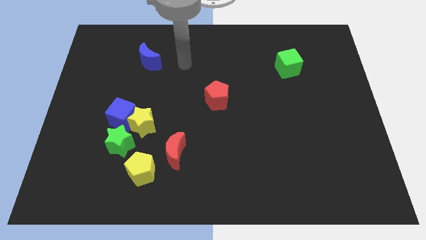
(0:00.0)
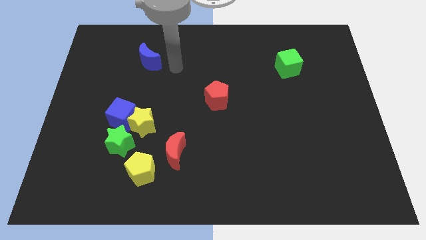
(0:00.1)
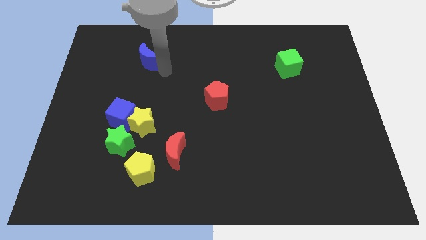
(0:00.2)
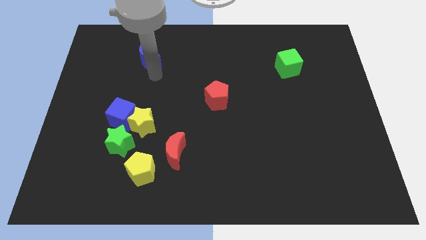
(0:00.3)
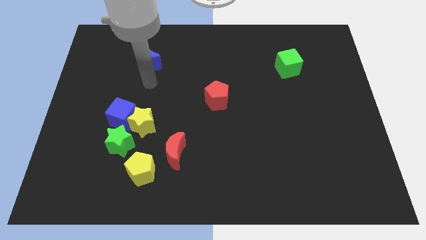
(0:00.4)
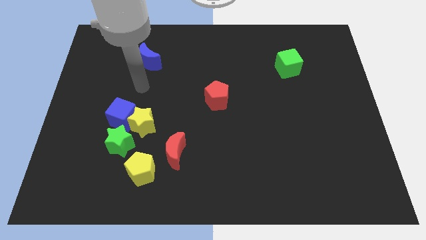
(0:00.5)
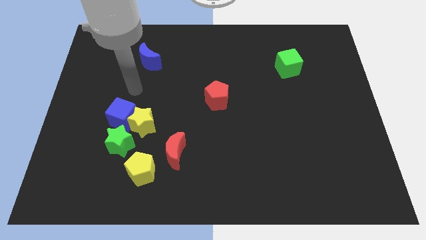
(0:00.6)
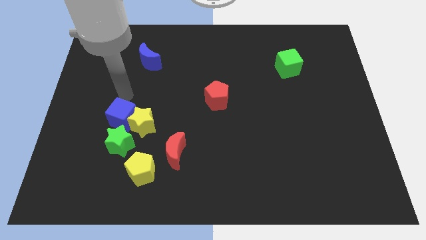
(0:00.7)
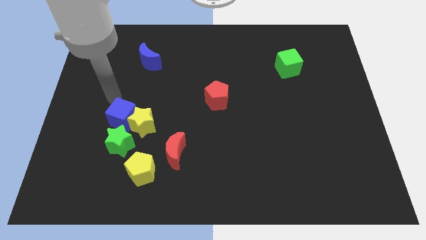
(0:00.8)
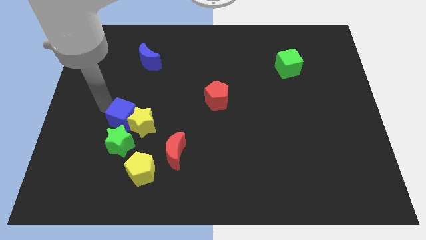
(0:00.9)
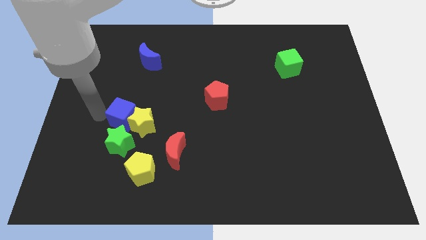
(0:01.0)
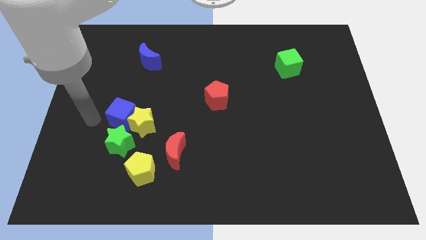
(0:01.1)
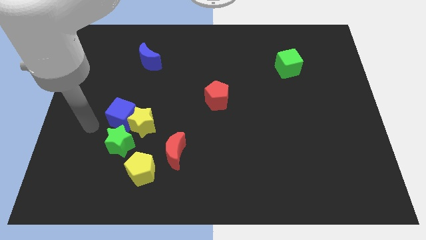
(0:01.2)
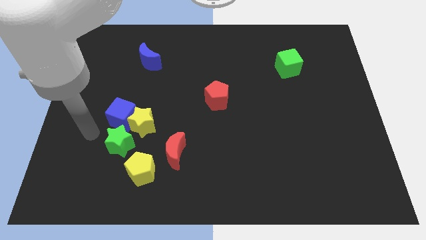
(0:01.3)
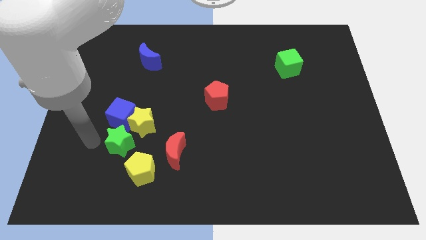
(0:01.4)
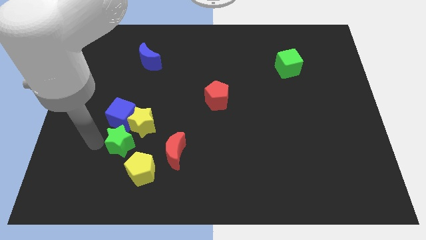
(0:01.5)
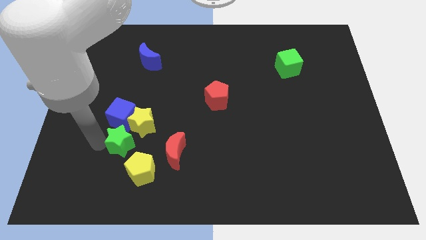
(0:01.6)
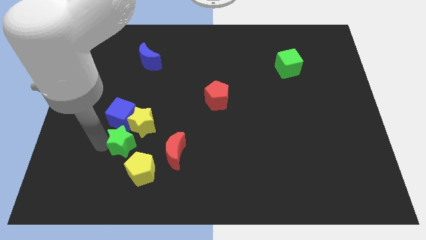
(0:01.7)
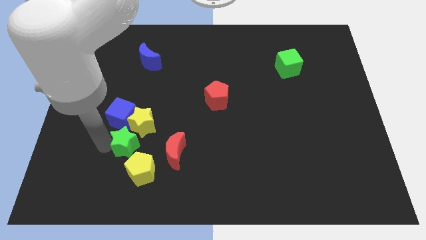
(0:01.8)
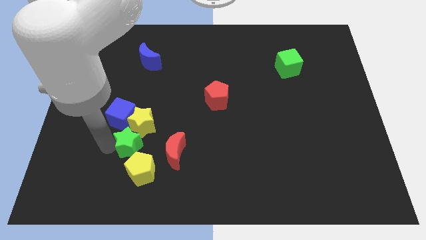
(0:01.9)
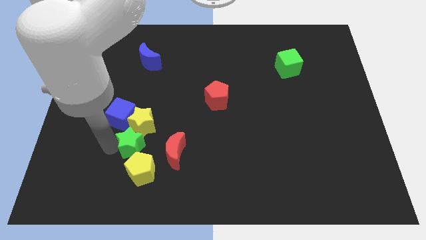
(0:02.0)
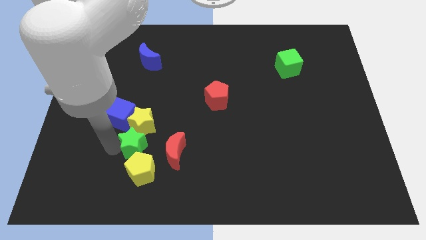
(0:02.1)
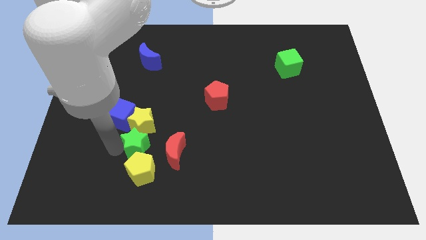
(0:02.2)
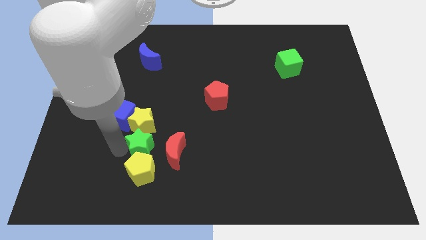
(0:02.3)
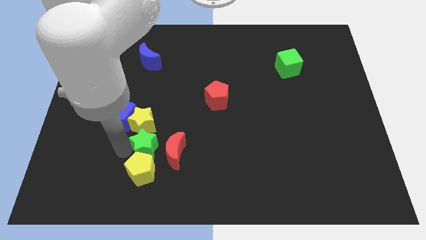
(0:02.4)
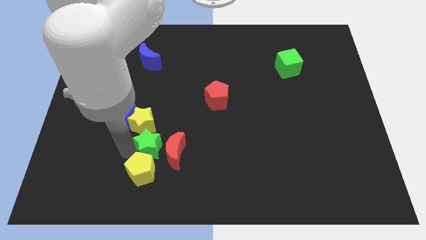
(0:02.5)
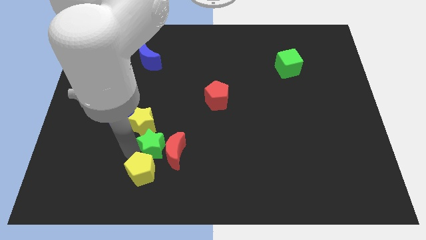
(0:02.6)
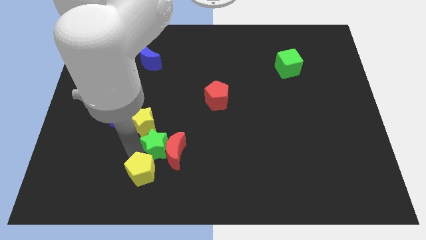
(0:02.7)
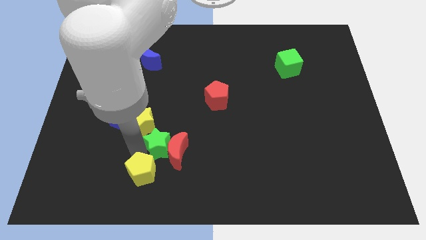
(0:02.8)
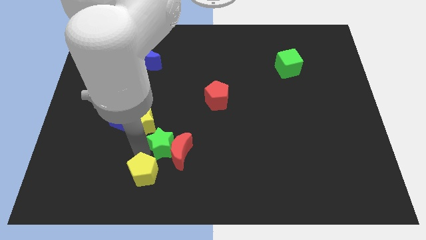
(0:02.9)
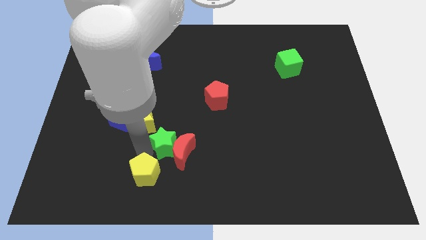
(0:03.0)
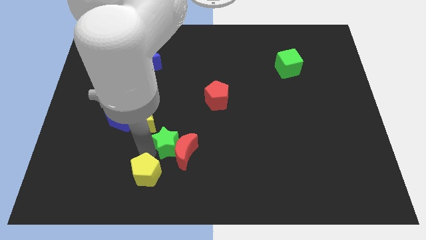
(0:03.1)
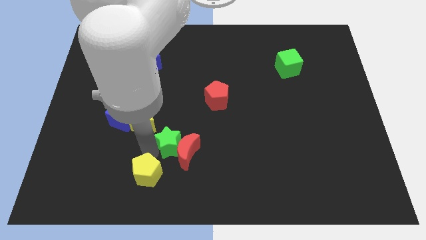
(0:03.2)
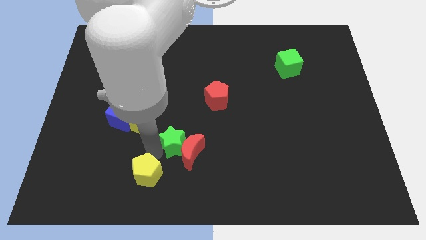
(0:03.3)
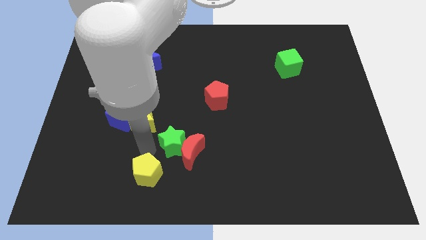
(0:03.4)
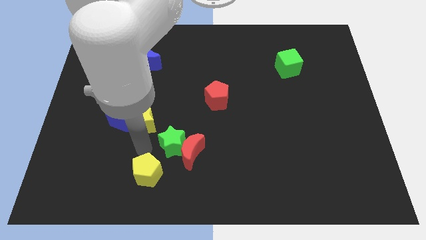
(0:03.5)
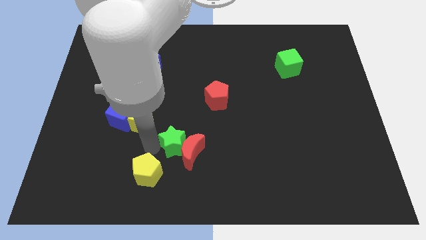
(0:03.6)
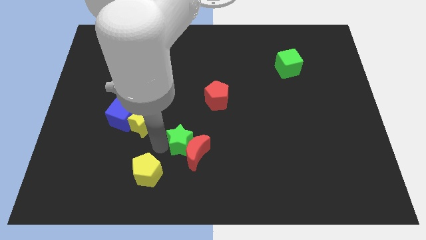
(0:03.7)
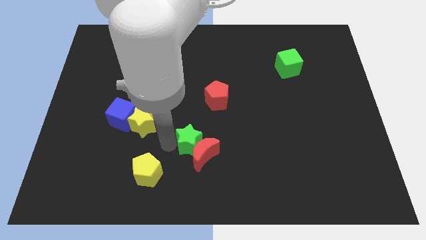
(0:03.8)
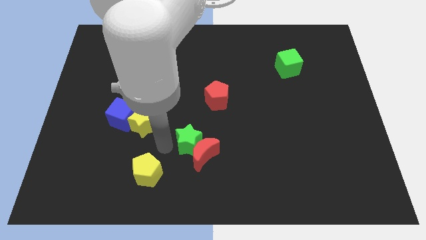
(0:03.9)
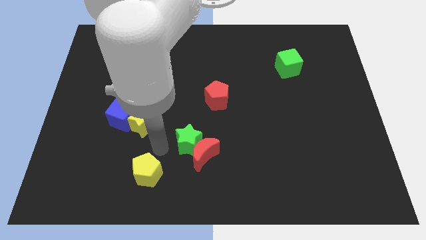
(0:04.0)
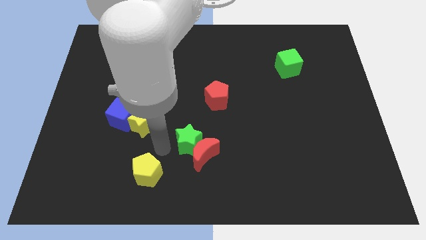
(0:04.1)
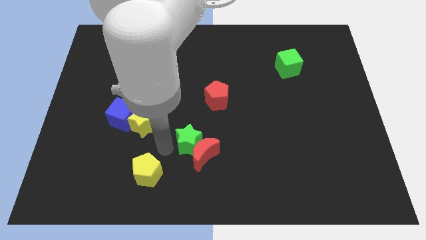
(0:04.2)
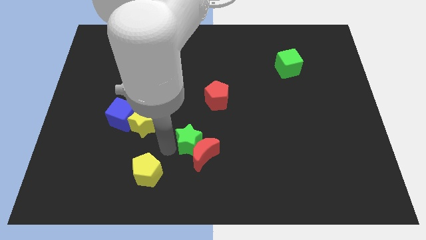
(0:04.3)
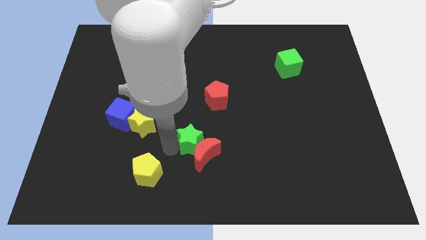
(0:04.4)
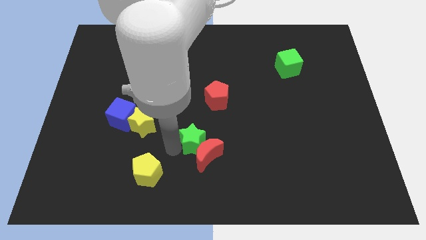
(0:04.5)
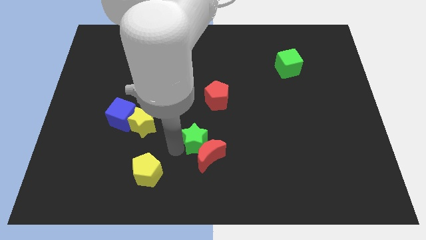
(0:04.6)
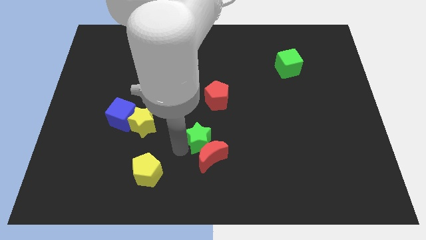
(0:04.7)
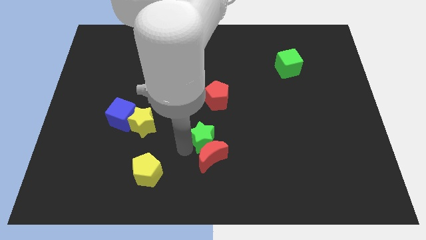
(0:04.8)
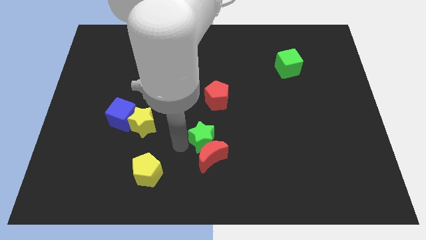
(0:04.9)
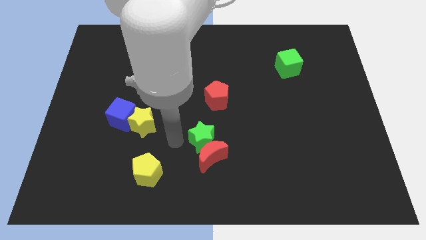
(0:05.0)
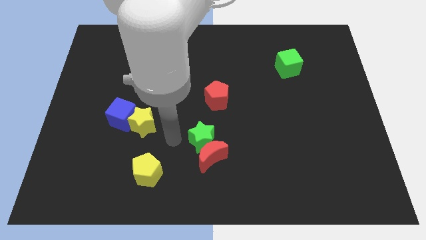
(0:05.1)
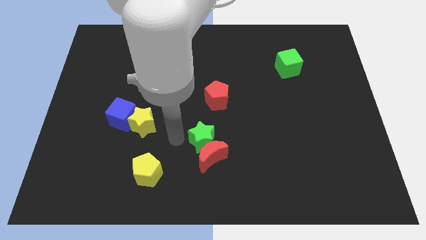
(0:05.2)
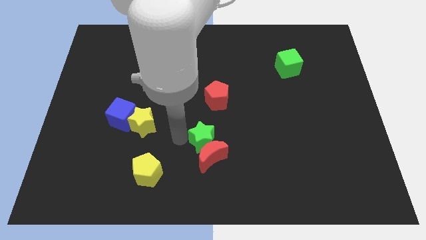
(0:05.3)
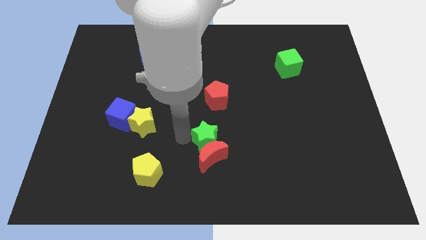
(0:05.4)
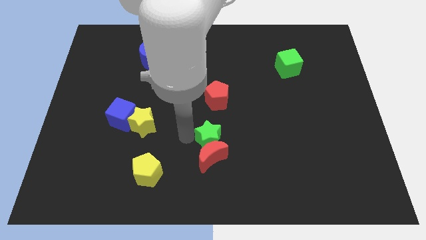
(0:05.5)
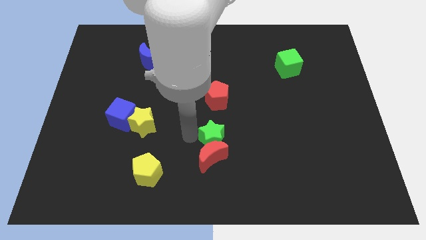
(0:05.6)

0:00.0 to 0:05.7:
slide the green star to the right

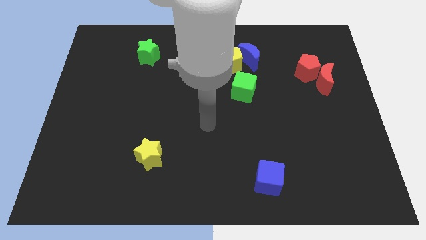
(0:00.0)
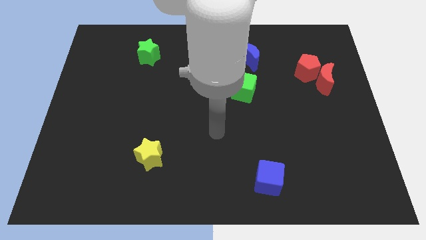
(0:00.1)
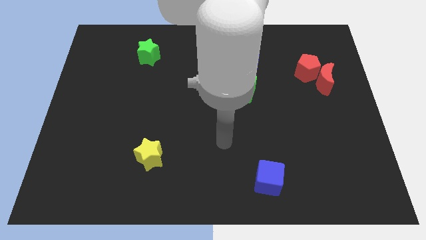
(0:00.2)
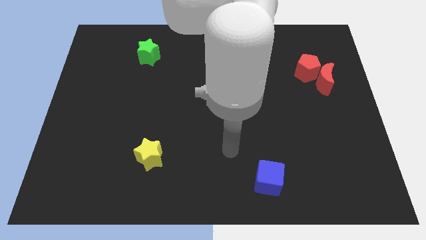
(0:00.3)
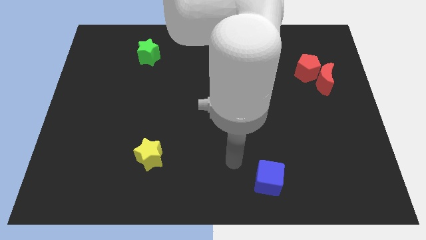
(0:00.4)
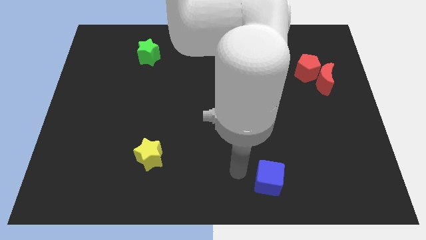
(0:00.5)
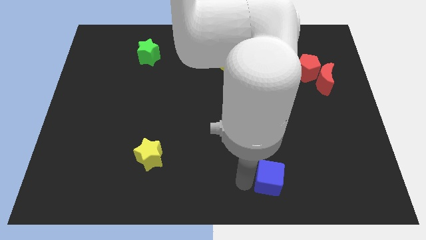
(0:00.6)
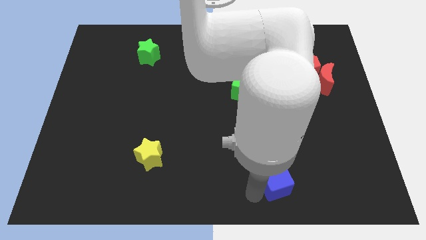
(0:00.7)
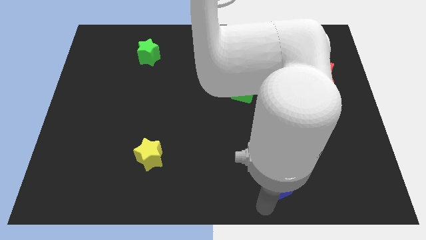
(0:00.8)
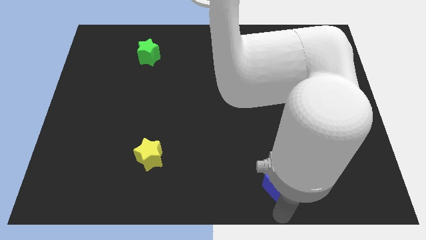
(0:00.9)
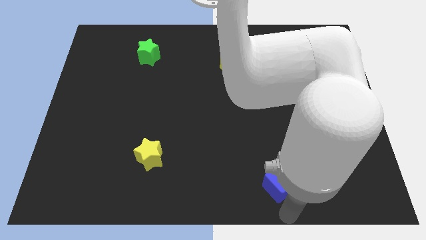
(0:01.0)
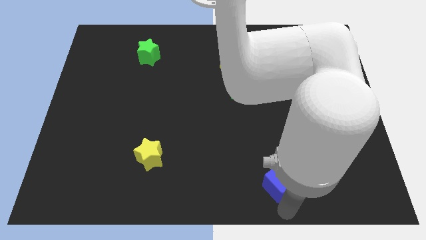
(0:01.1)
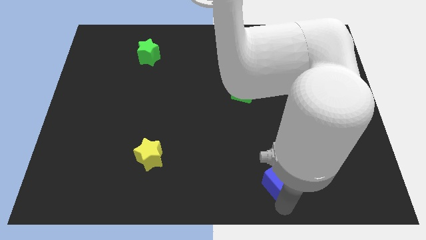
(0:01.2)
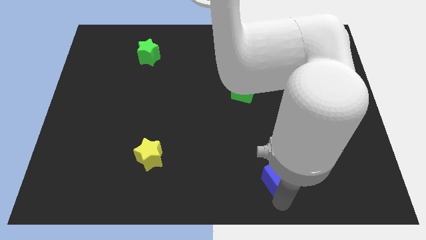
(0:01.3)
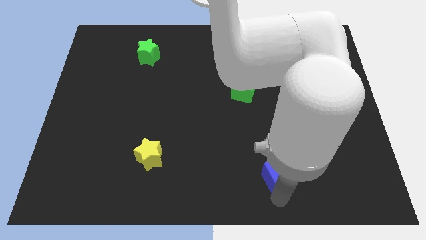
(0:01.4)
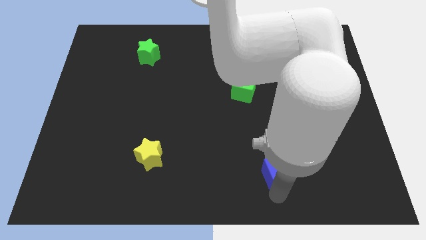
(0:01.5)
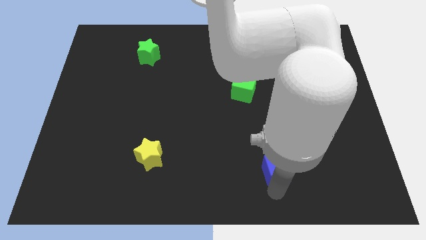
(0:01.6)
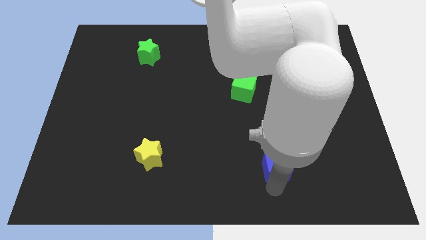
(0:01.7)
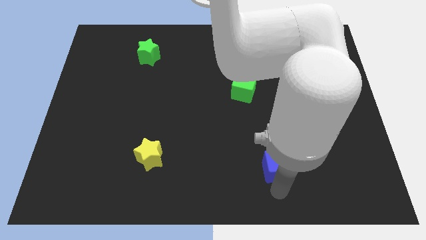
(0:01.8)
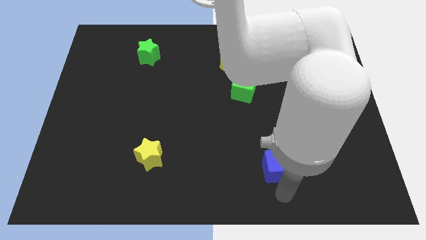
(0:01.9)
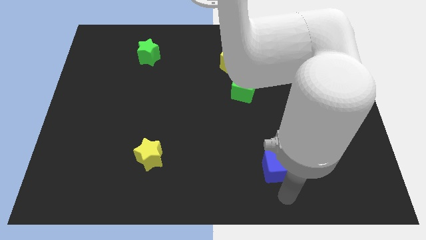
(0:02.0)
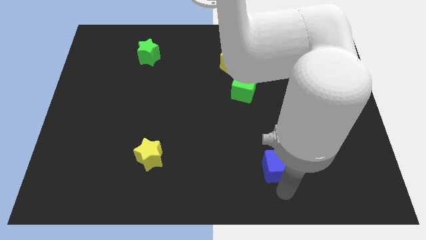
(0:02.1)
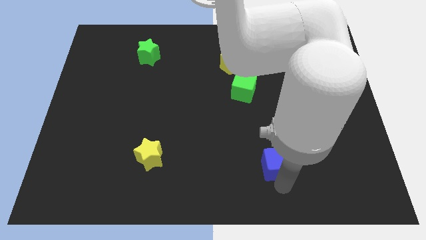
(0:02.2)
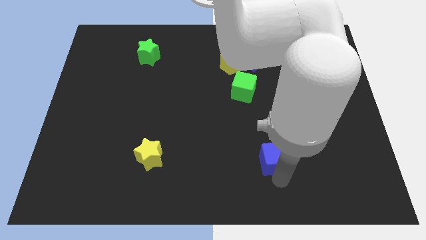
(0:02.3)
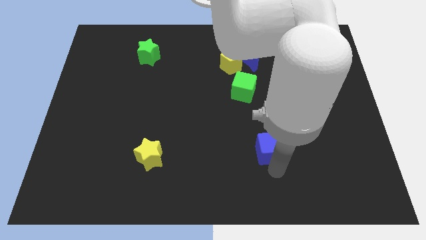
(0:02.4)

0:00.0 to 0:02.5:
push the blue cube a little up
